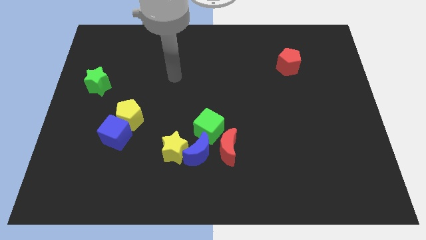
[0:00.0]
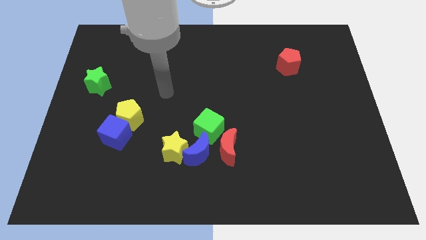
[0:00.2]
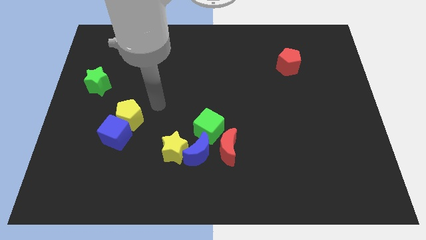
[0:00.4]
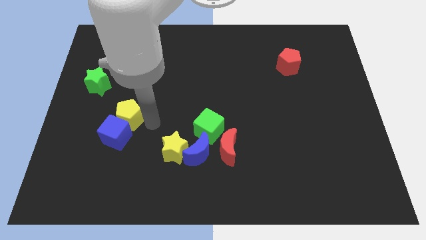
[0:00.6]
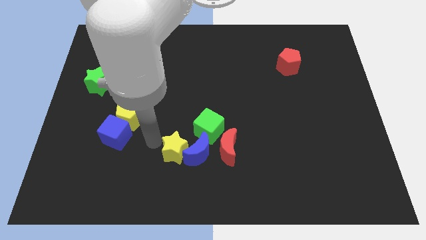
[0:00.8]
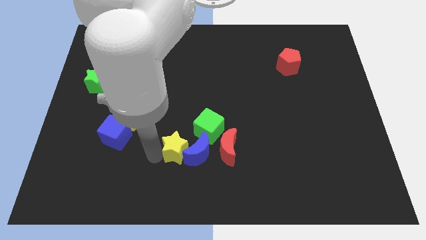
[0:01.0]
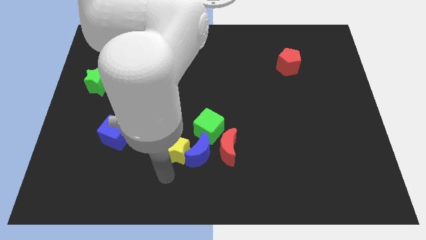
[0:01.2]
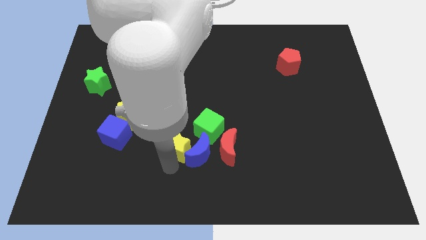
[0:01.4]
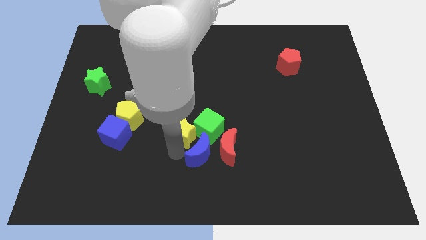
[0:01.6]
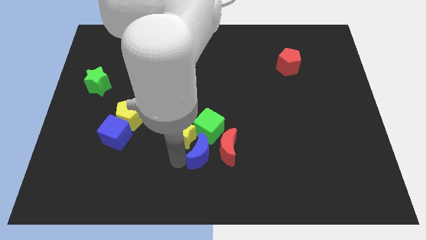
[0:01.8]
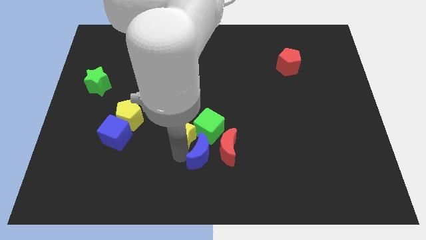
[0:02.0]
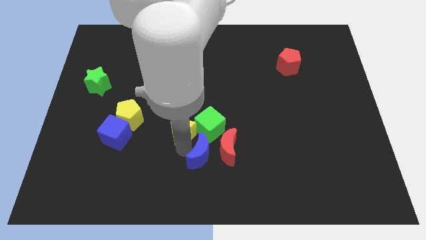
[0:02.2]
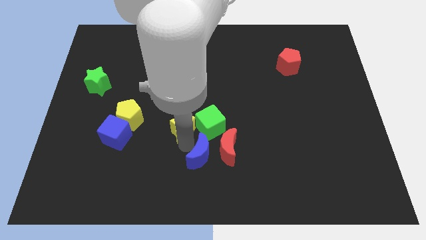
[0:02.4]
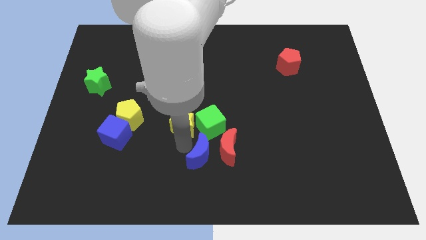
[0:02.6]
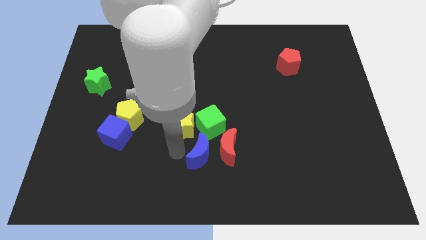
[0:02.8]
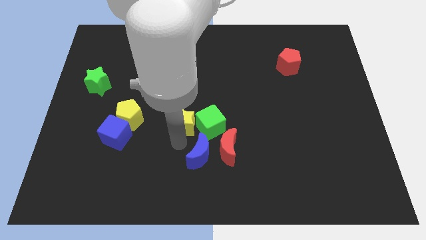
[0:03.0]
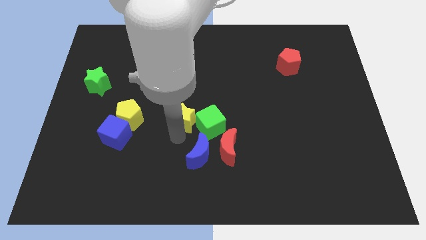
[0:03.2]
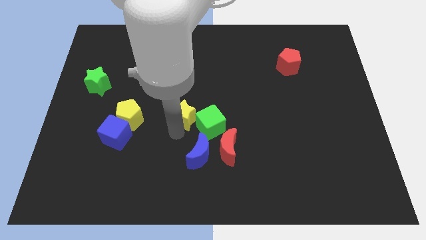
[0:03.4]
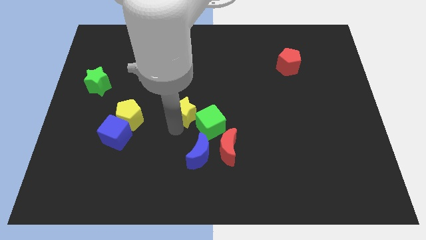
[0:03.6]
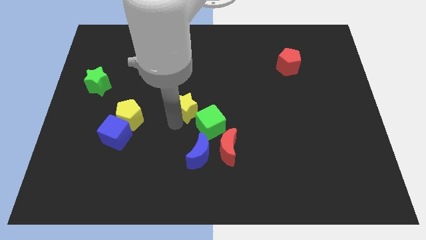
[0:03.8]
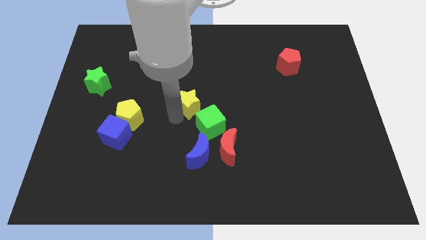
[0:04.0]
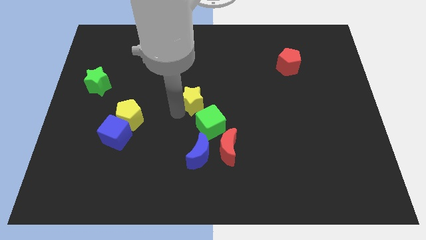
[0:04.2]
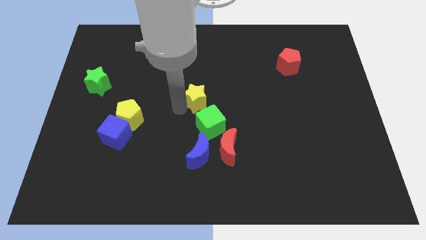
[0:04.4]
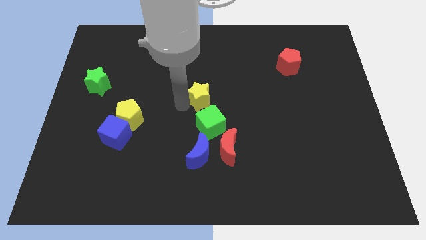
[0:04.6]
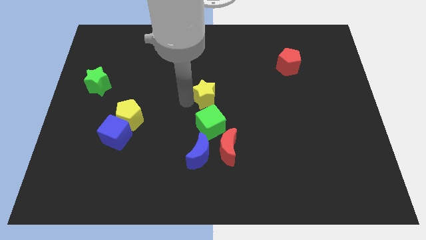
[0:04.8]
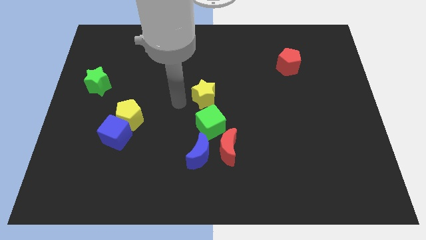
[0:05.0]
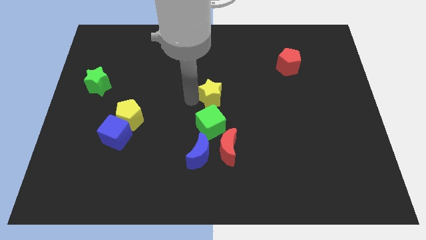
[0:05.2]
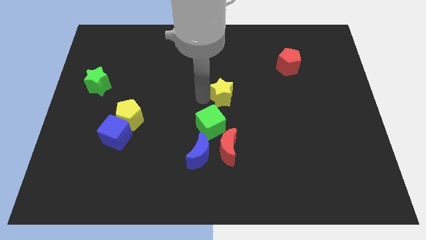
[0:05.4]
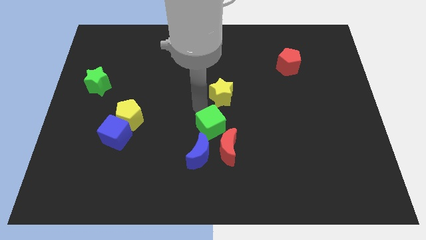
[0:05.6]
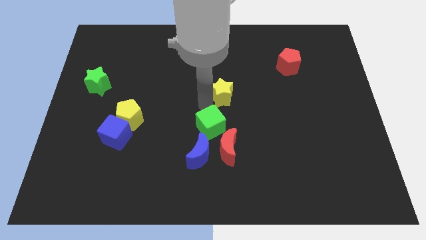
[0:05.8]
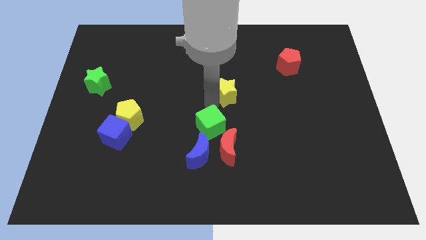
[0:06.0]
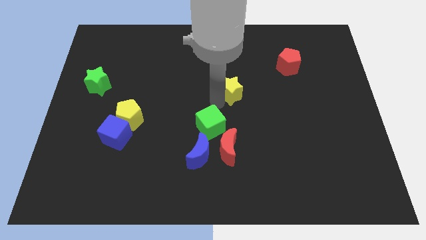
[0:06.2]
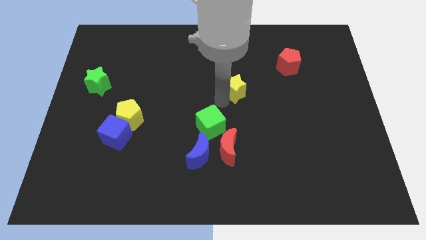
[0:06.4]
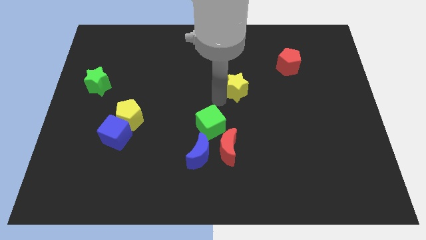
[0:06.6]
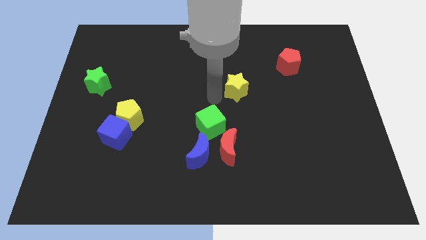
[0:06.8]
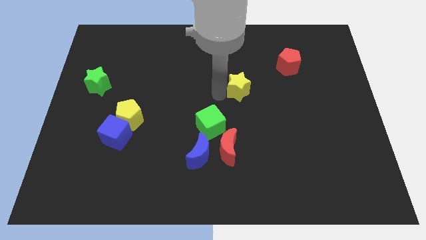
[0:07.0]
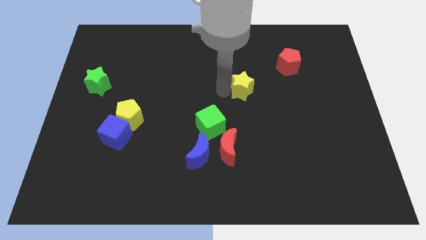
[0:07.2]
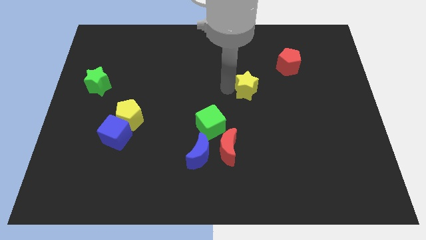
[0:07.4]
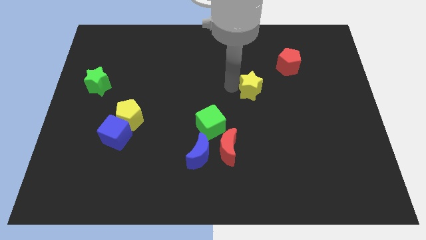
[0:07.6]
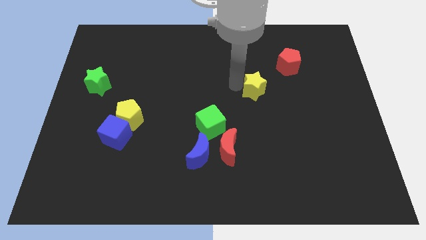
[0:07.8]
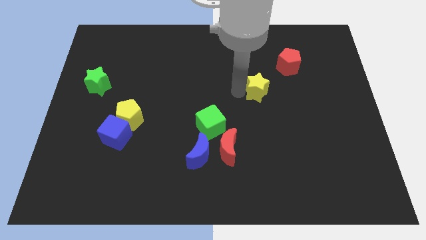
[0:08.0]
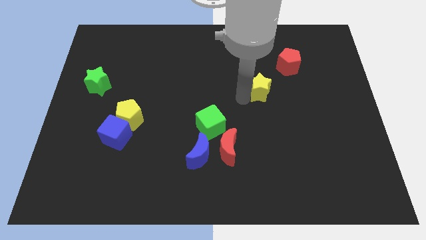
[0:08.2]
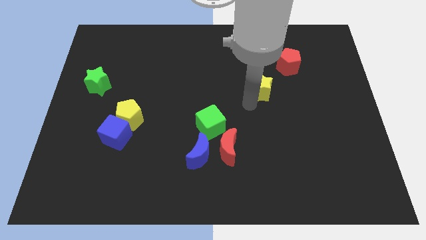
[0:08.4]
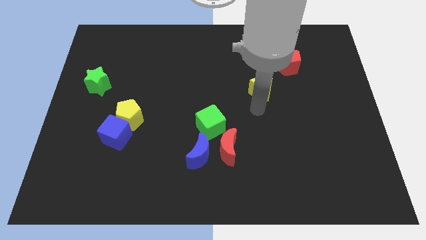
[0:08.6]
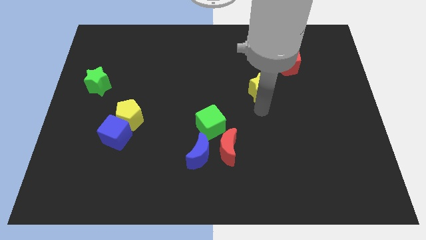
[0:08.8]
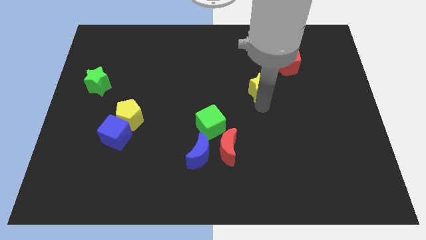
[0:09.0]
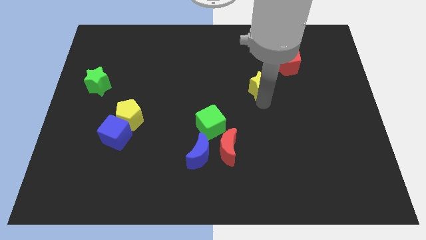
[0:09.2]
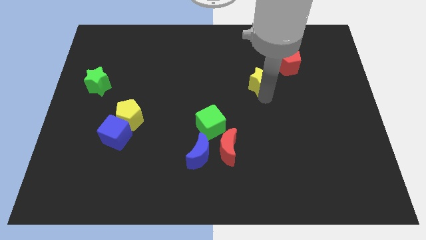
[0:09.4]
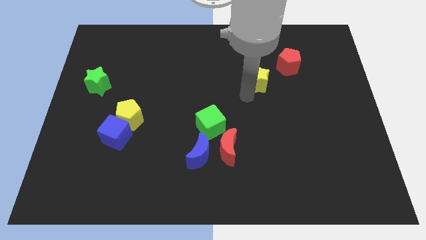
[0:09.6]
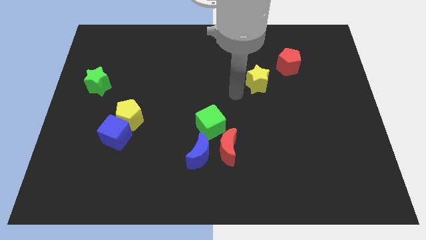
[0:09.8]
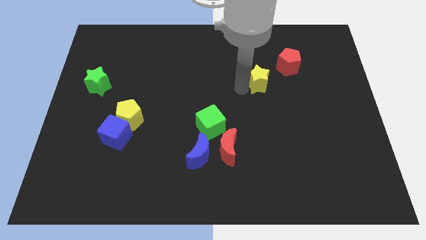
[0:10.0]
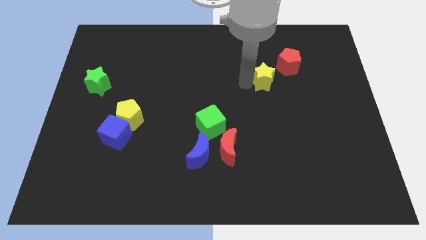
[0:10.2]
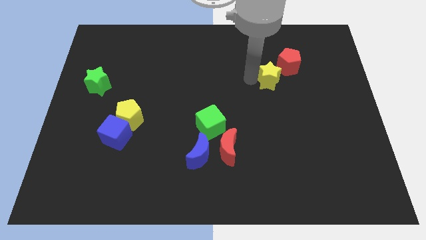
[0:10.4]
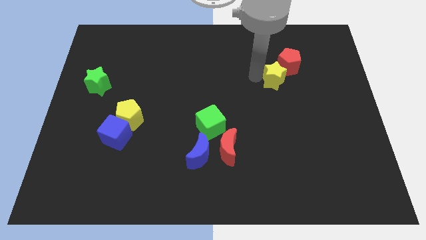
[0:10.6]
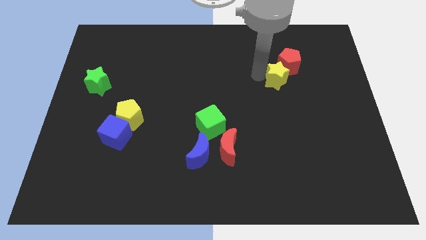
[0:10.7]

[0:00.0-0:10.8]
slide the yellow star close to the red pentagon
